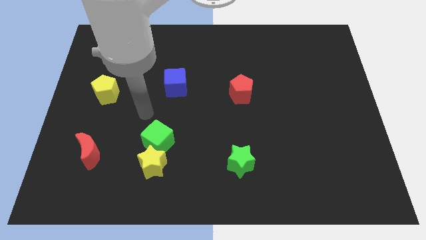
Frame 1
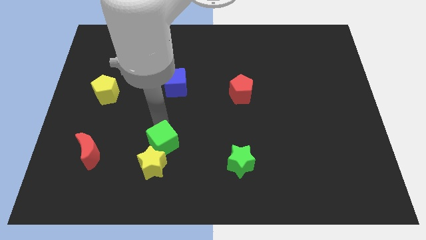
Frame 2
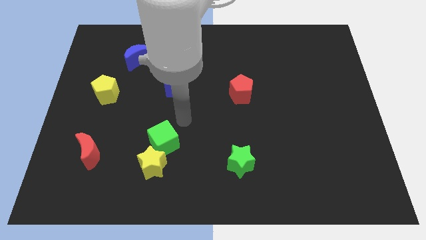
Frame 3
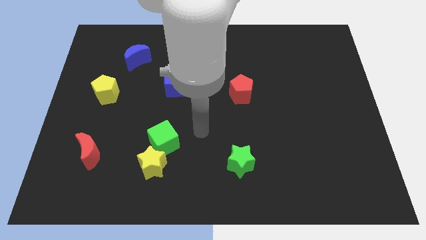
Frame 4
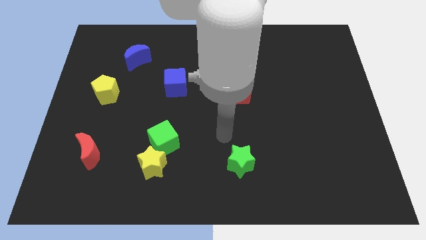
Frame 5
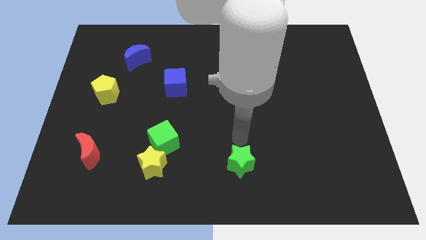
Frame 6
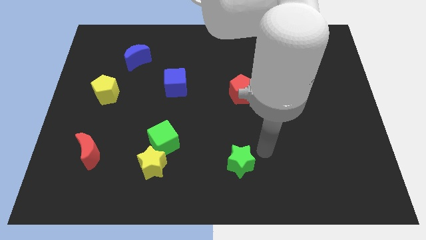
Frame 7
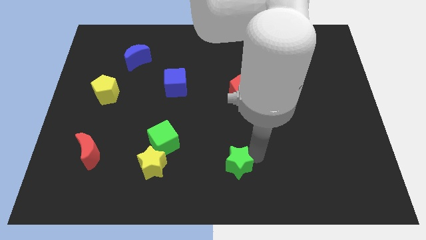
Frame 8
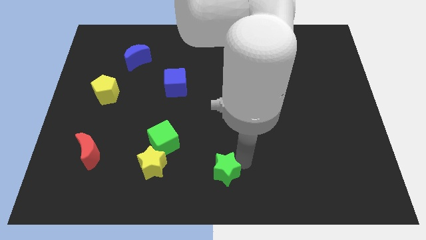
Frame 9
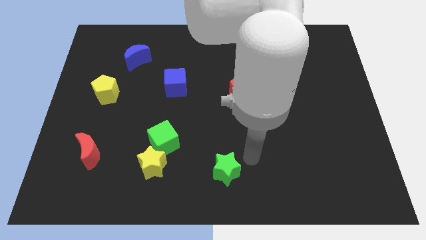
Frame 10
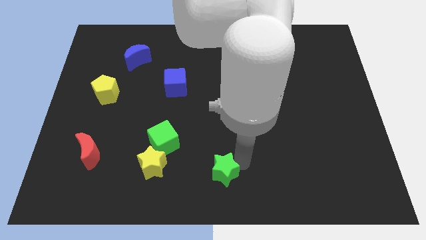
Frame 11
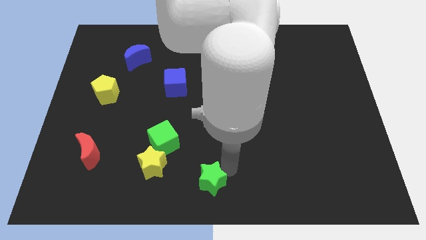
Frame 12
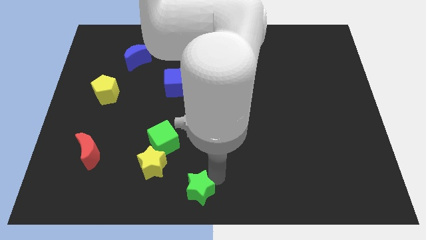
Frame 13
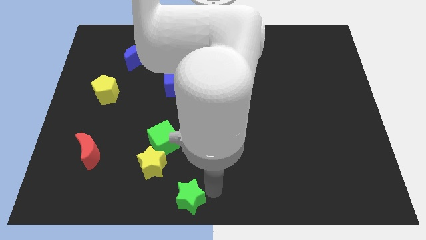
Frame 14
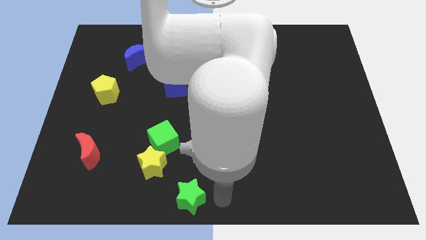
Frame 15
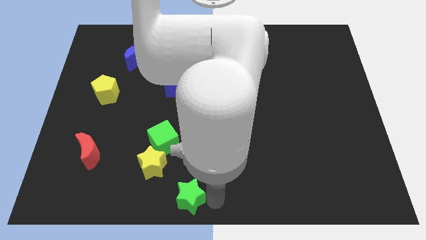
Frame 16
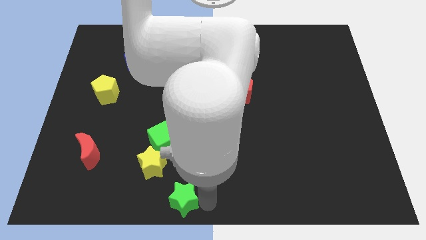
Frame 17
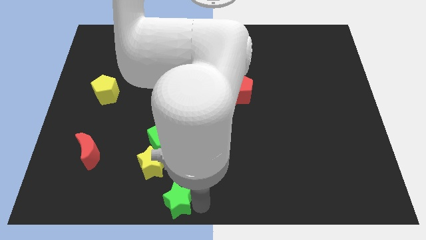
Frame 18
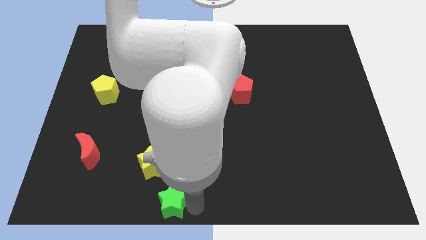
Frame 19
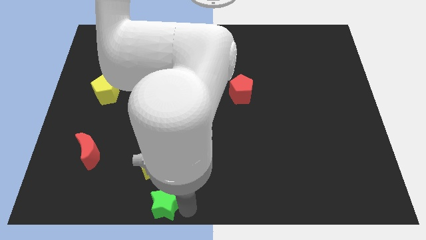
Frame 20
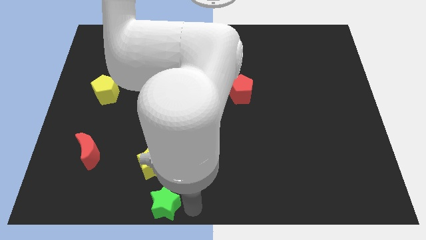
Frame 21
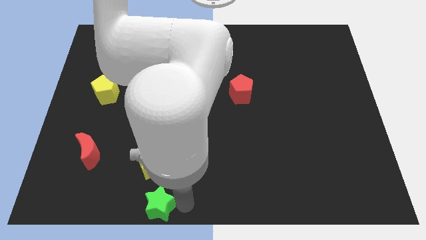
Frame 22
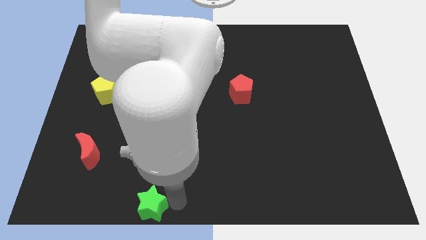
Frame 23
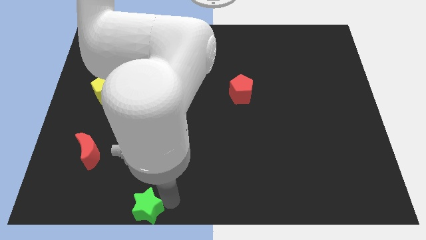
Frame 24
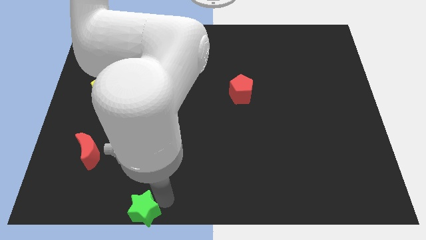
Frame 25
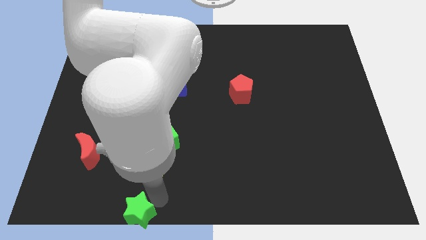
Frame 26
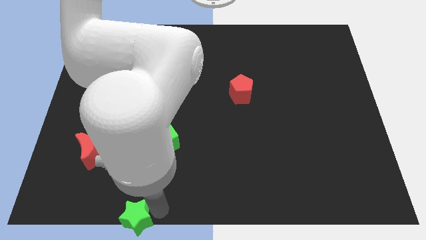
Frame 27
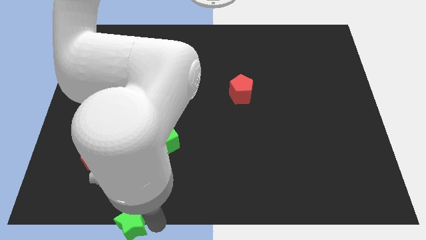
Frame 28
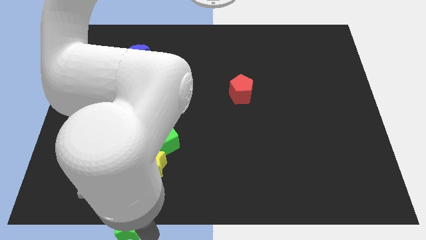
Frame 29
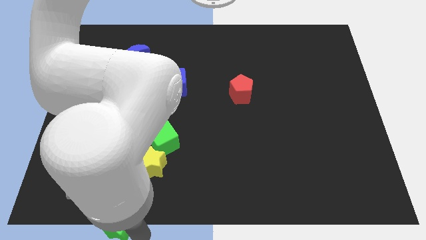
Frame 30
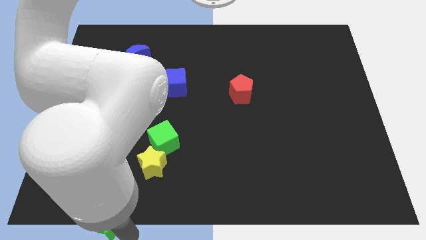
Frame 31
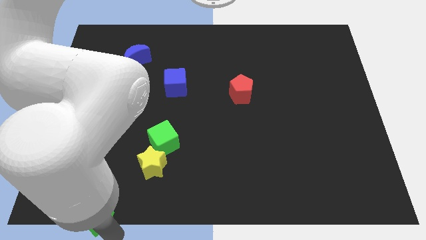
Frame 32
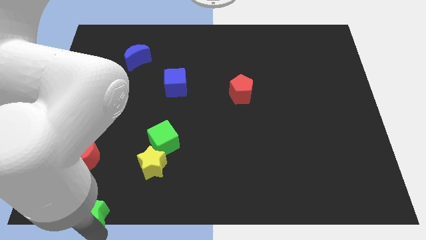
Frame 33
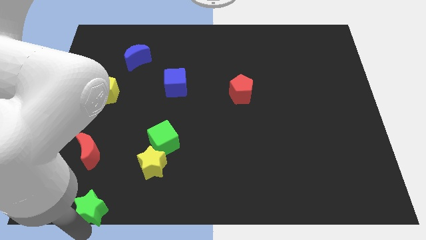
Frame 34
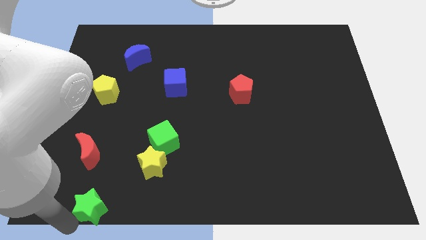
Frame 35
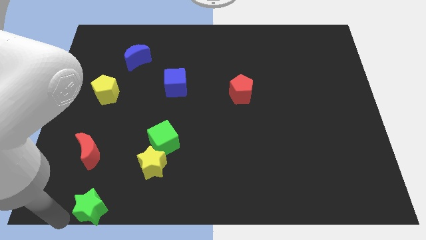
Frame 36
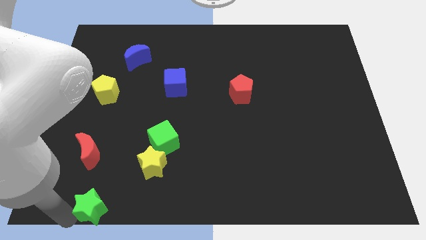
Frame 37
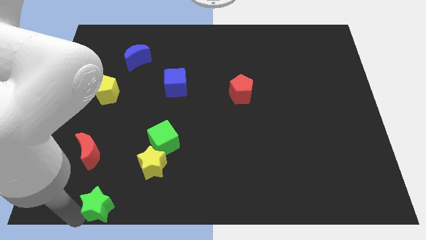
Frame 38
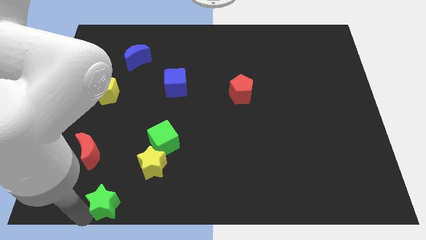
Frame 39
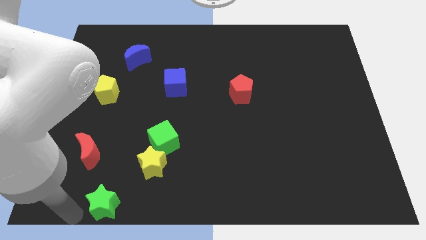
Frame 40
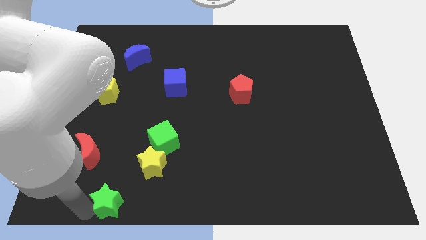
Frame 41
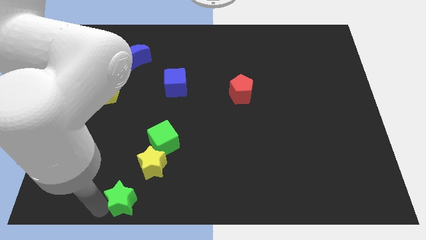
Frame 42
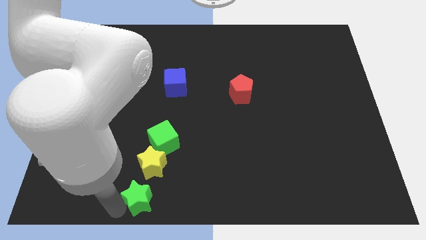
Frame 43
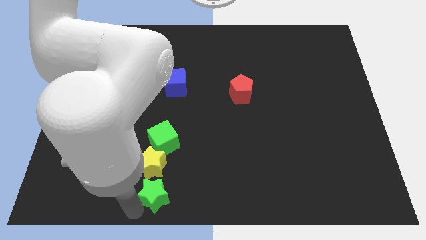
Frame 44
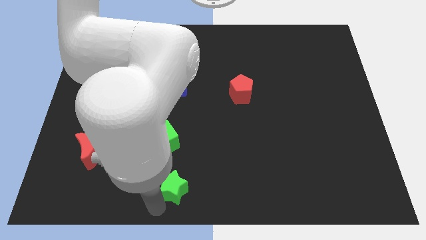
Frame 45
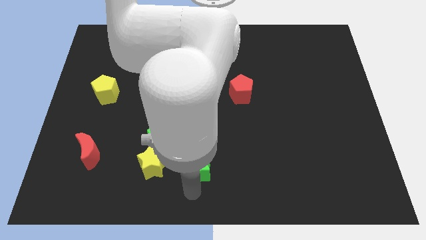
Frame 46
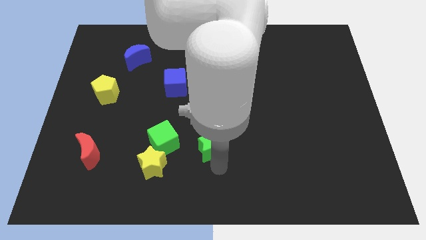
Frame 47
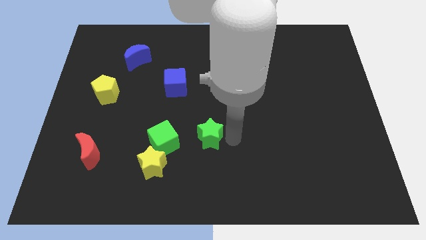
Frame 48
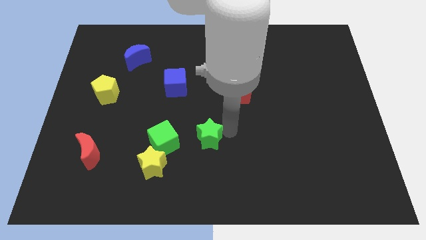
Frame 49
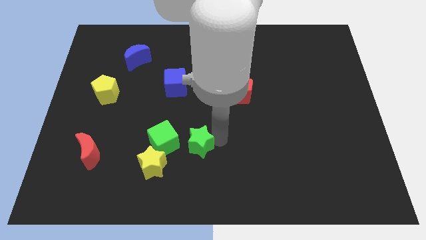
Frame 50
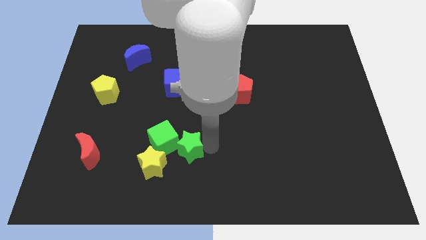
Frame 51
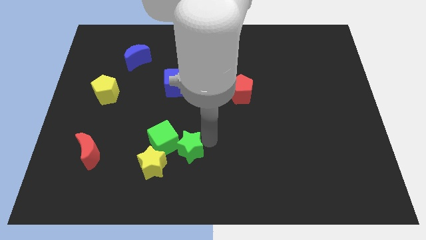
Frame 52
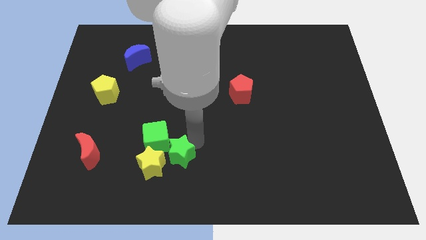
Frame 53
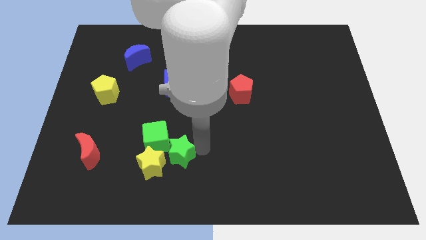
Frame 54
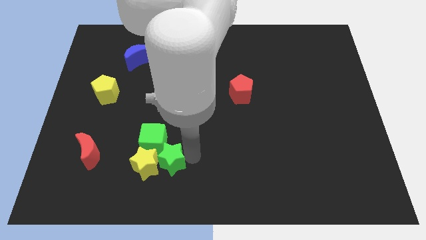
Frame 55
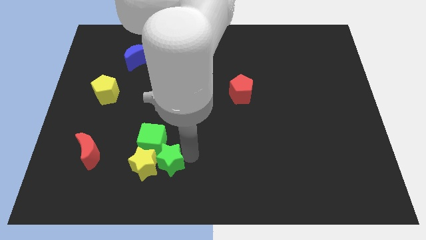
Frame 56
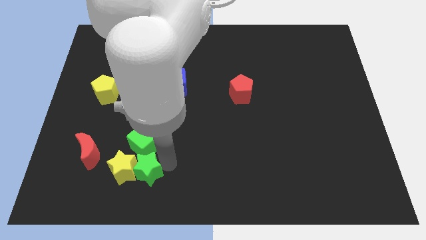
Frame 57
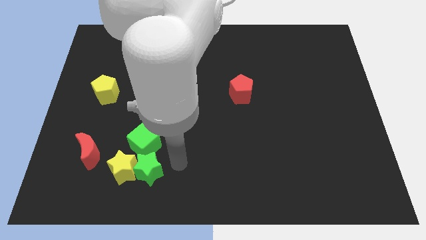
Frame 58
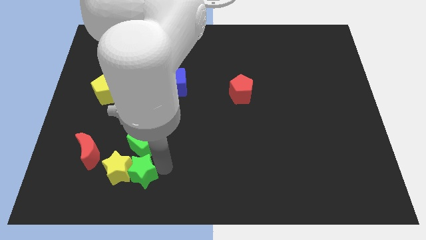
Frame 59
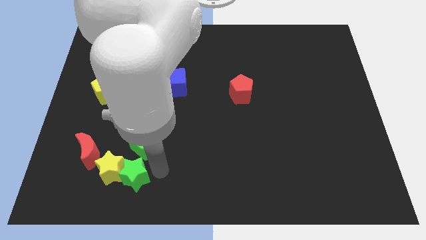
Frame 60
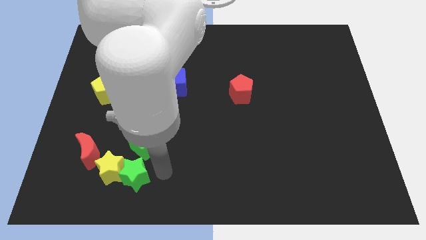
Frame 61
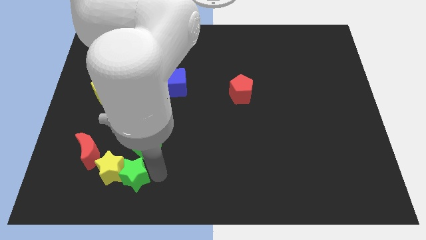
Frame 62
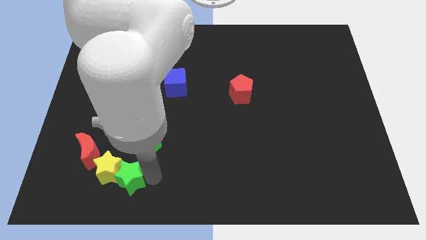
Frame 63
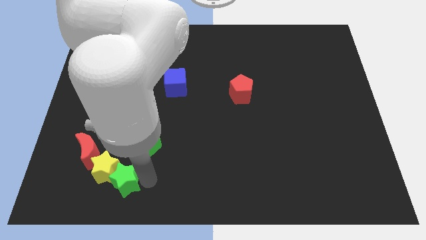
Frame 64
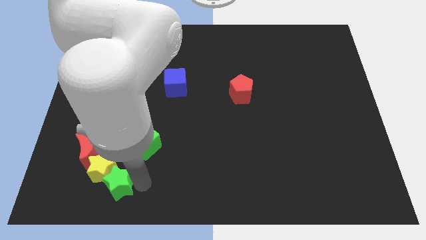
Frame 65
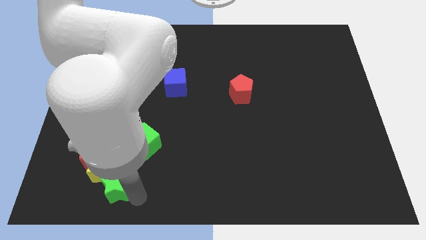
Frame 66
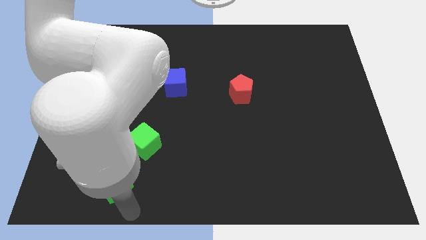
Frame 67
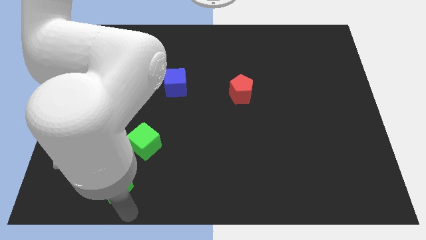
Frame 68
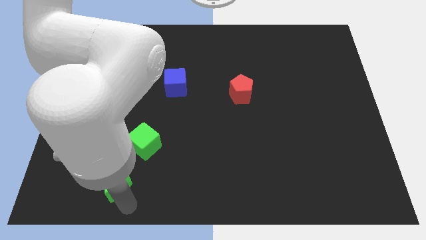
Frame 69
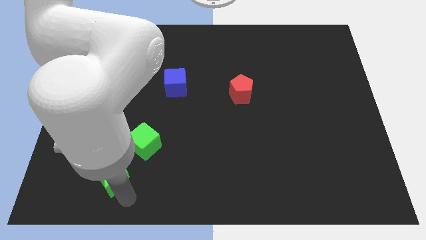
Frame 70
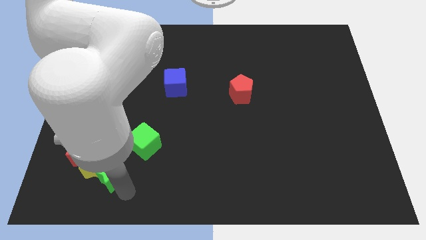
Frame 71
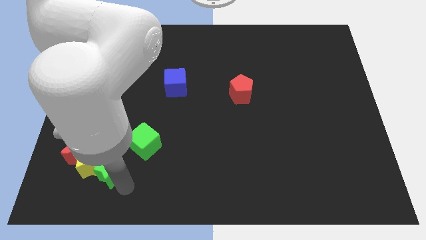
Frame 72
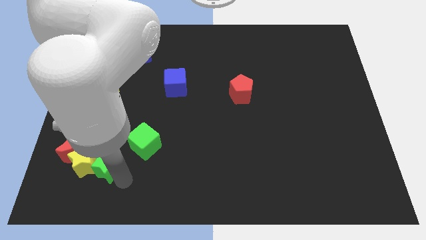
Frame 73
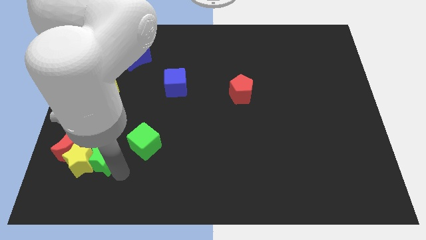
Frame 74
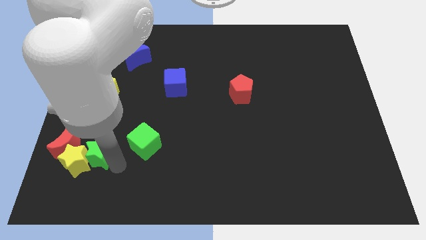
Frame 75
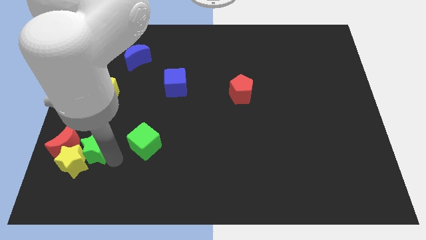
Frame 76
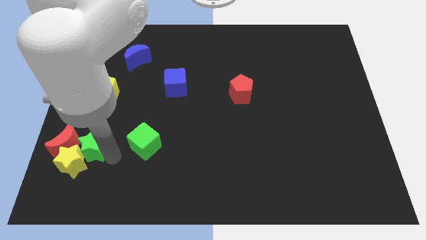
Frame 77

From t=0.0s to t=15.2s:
slide the green star to the red moon
